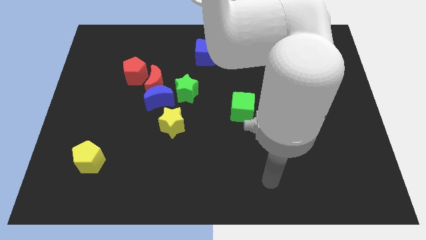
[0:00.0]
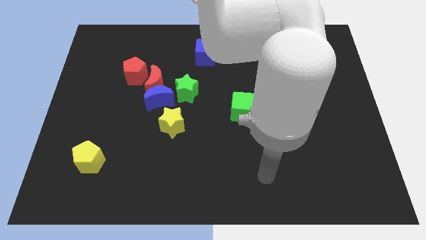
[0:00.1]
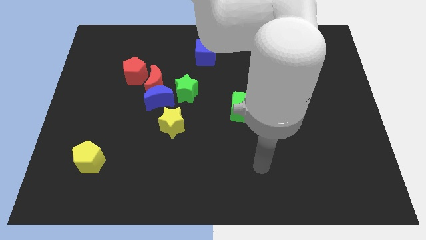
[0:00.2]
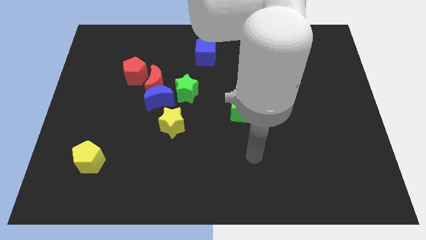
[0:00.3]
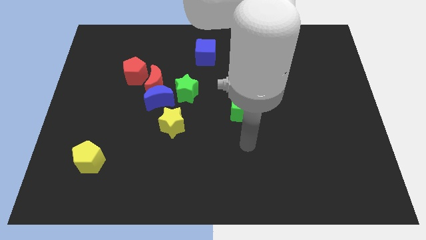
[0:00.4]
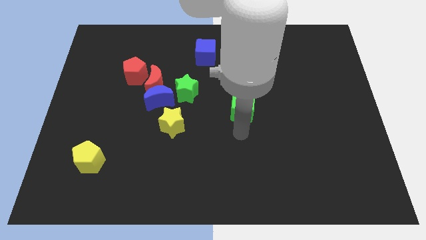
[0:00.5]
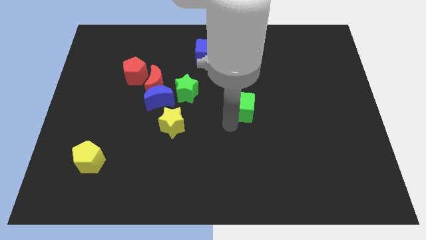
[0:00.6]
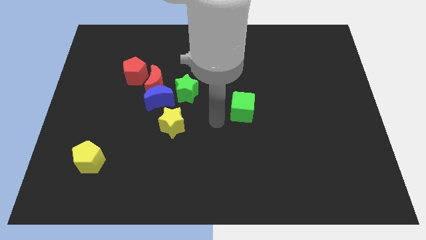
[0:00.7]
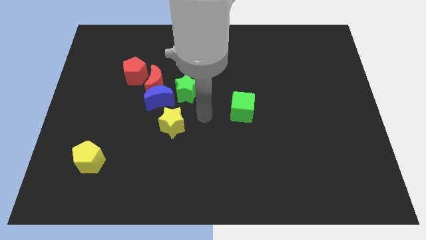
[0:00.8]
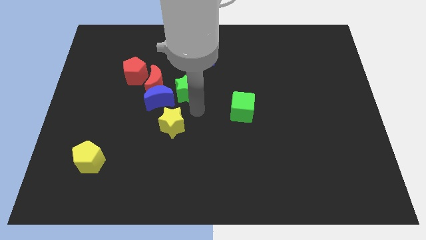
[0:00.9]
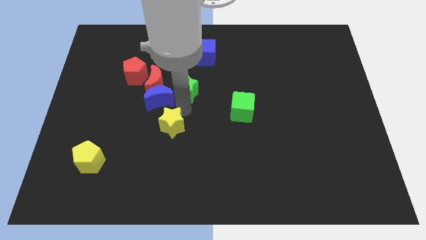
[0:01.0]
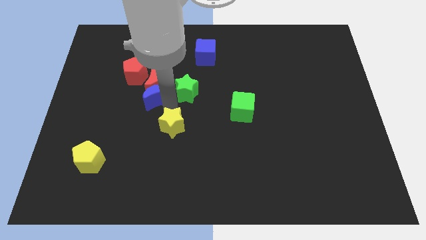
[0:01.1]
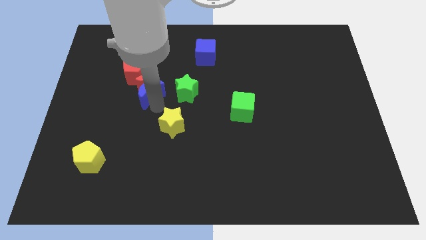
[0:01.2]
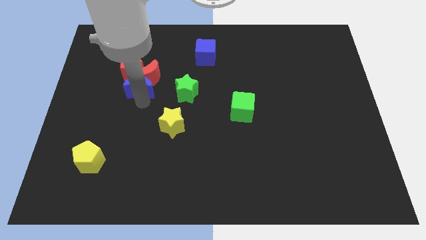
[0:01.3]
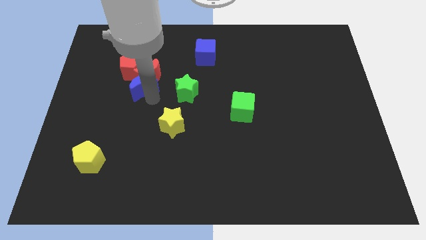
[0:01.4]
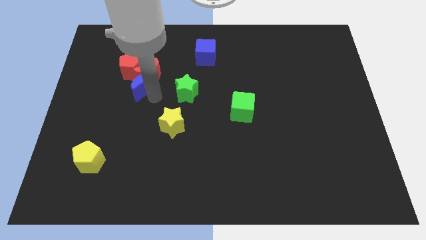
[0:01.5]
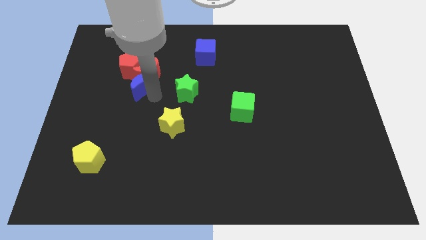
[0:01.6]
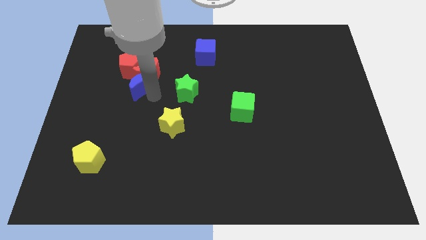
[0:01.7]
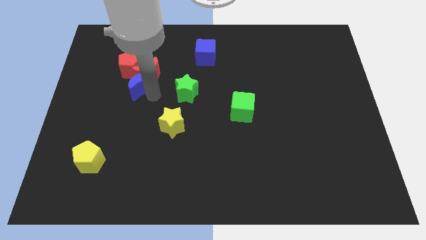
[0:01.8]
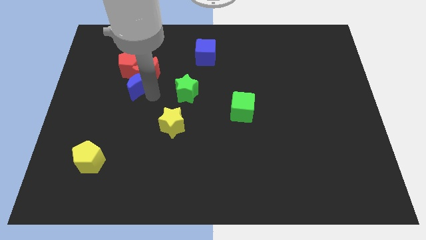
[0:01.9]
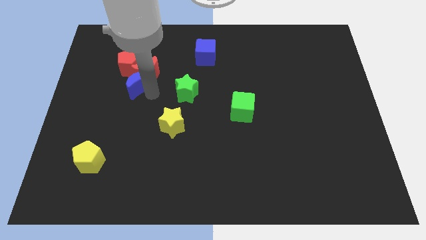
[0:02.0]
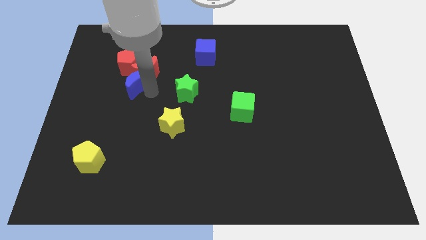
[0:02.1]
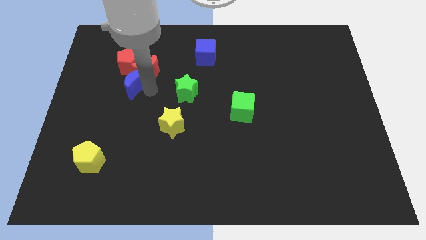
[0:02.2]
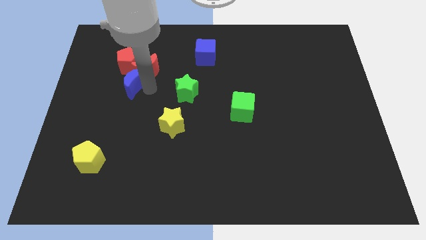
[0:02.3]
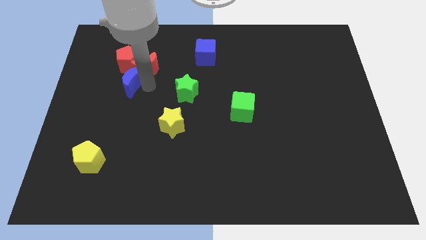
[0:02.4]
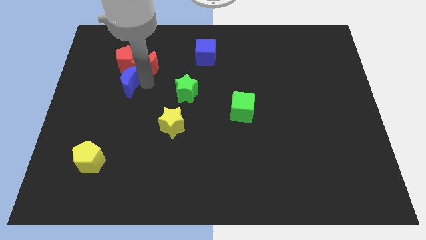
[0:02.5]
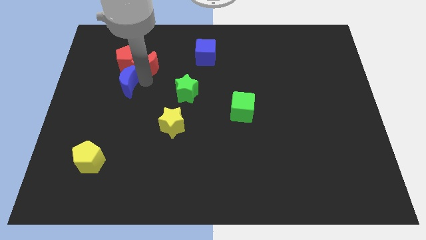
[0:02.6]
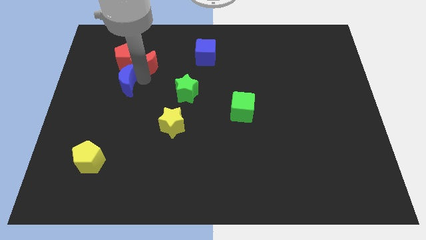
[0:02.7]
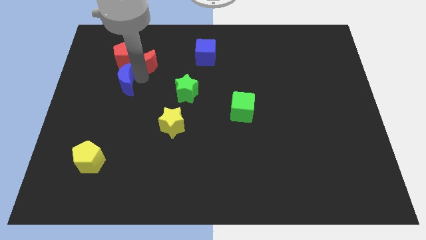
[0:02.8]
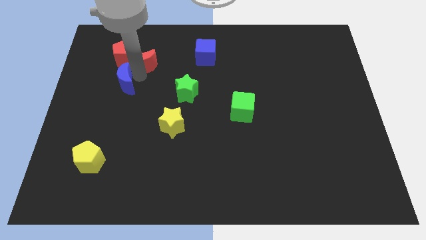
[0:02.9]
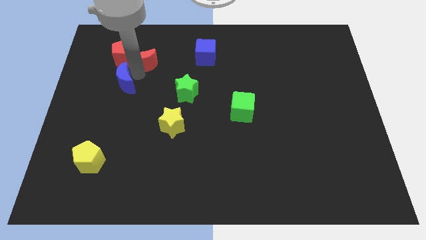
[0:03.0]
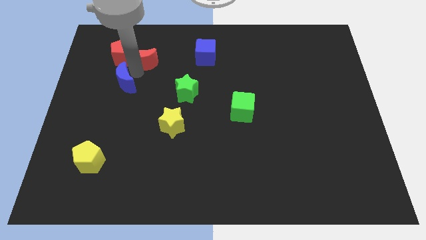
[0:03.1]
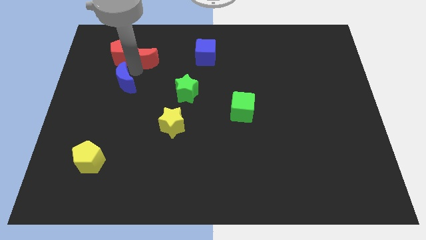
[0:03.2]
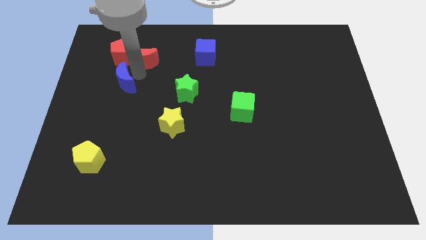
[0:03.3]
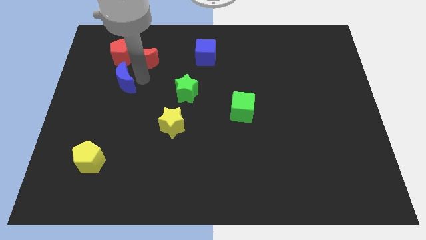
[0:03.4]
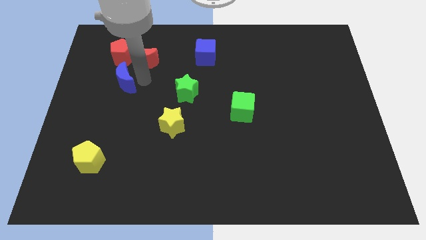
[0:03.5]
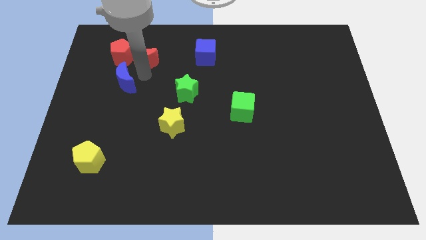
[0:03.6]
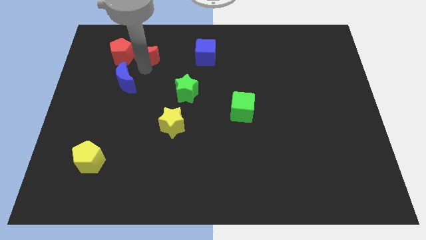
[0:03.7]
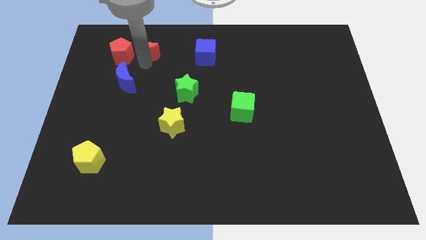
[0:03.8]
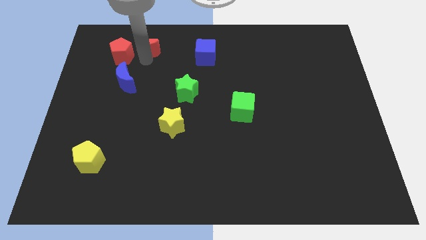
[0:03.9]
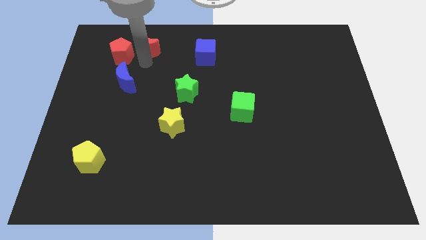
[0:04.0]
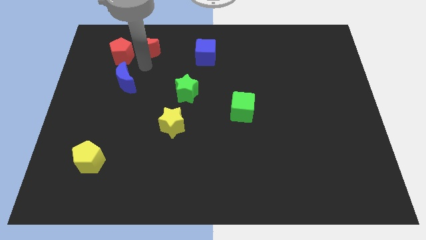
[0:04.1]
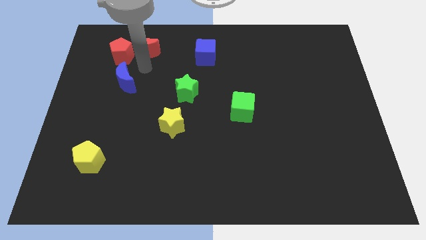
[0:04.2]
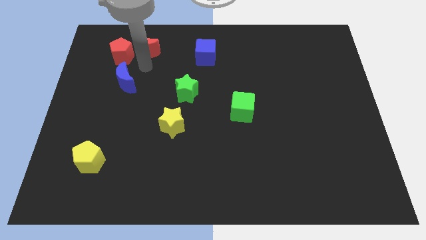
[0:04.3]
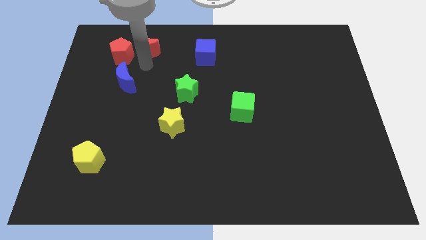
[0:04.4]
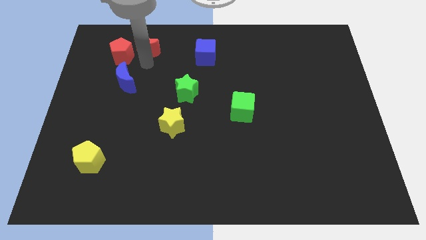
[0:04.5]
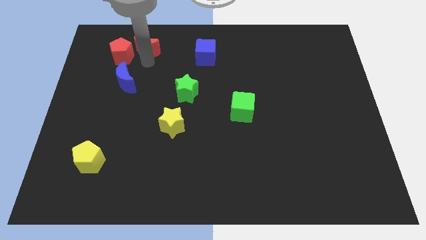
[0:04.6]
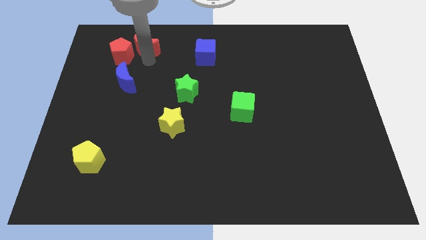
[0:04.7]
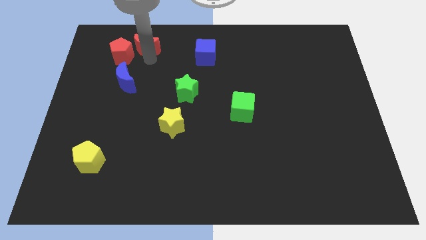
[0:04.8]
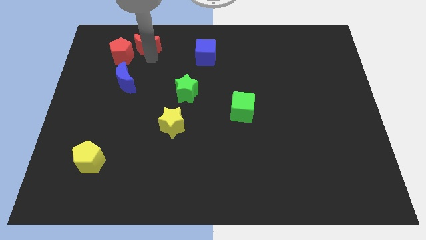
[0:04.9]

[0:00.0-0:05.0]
move the red moon away from the blue moon, red pentagon, and green star

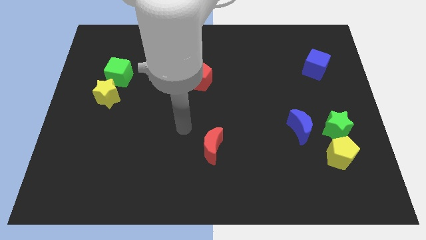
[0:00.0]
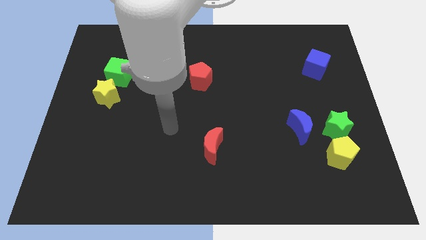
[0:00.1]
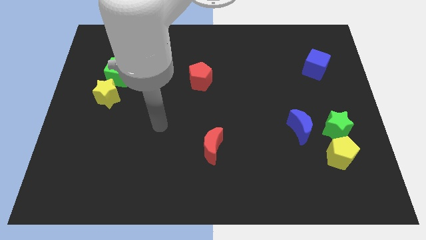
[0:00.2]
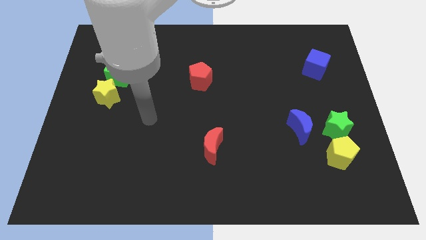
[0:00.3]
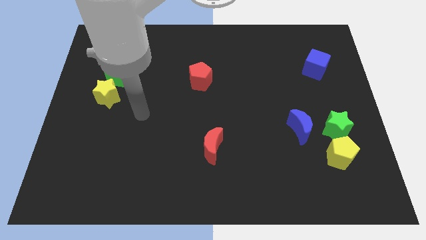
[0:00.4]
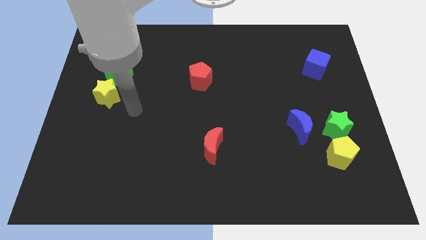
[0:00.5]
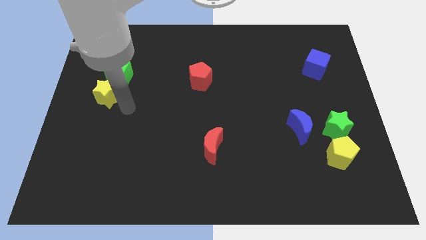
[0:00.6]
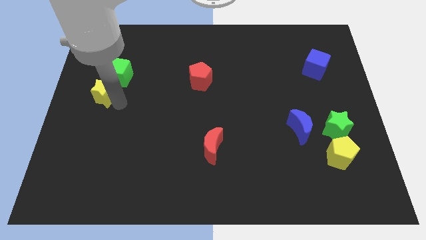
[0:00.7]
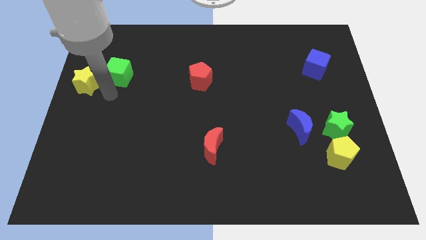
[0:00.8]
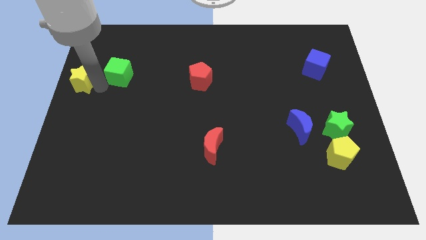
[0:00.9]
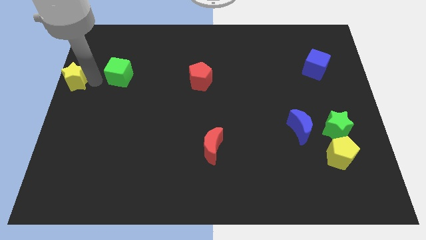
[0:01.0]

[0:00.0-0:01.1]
pull the green cube apart from the yellow star

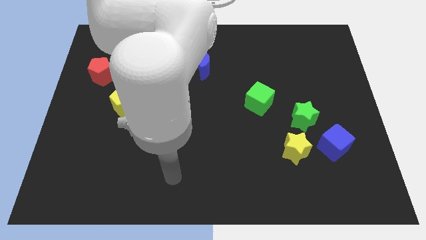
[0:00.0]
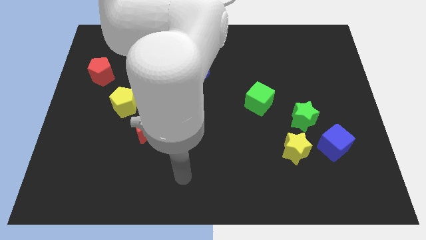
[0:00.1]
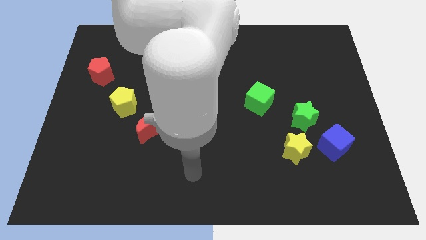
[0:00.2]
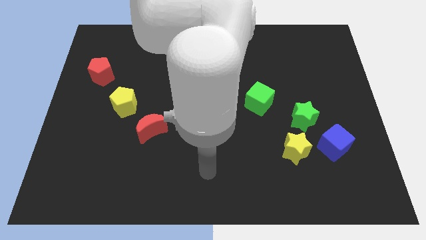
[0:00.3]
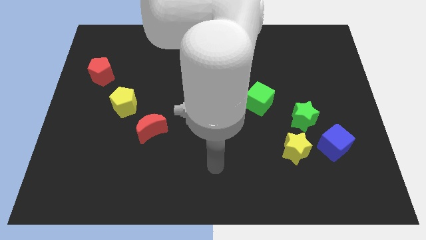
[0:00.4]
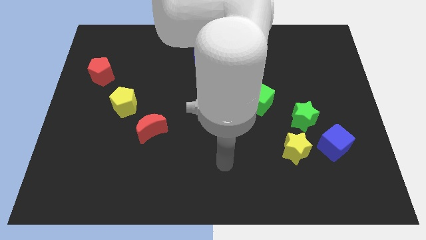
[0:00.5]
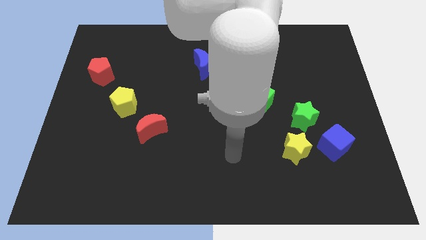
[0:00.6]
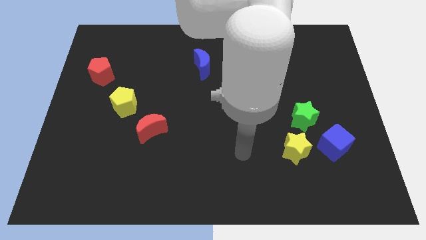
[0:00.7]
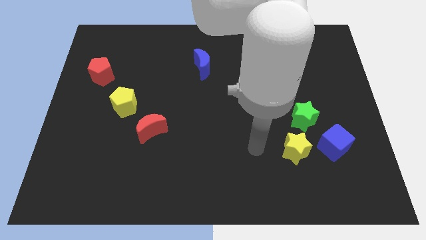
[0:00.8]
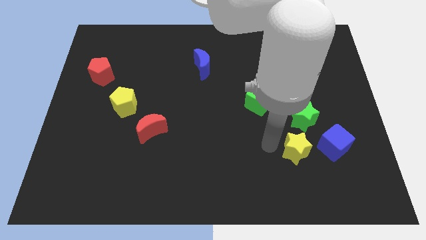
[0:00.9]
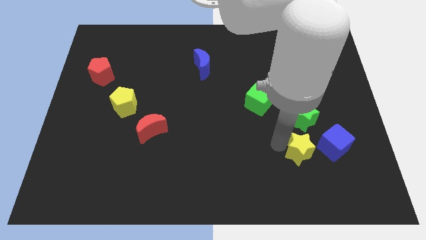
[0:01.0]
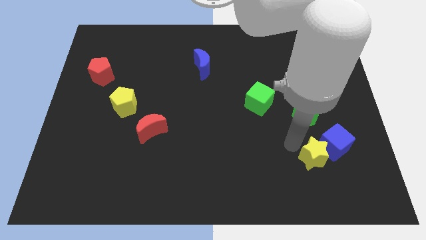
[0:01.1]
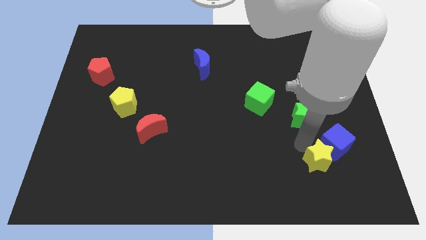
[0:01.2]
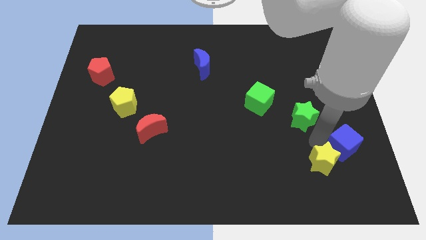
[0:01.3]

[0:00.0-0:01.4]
separate the green star from the yellow star and blue cube

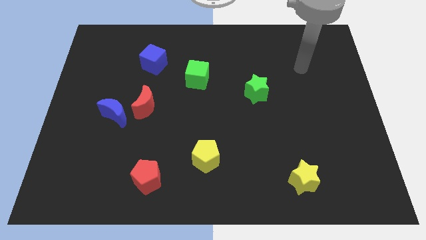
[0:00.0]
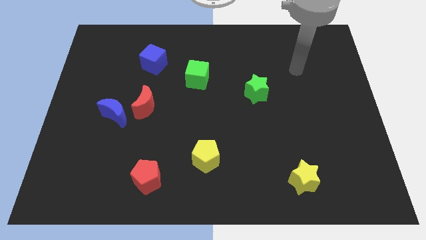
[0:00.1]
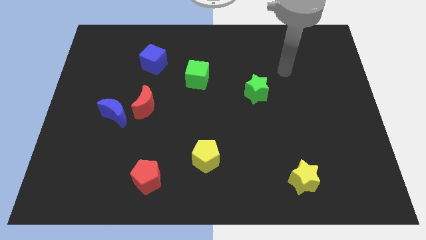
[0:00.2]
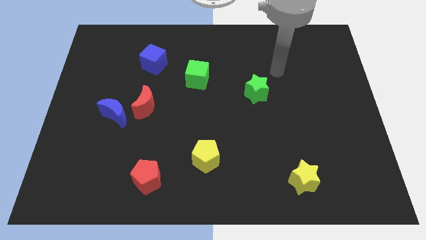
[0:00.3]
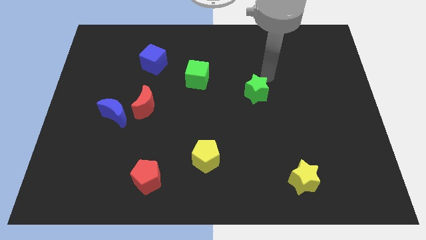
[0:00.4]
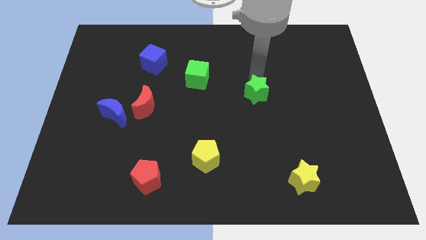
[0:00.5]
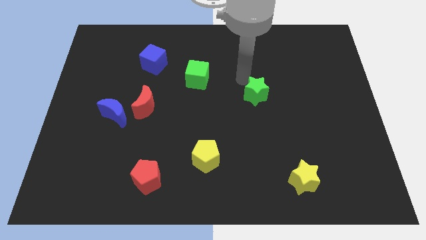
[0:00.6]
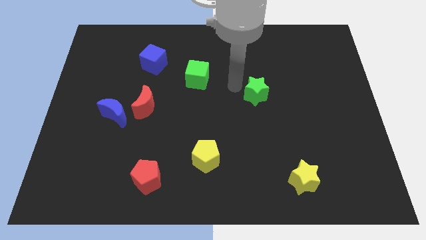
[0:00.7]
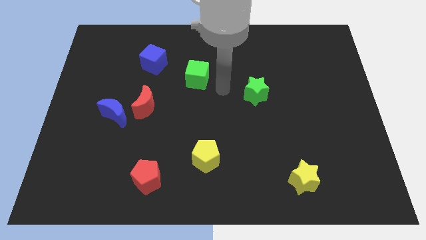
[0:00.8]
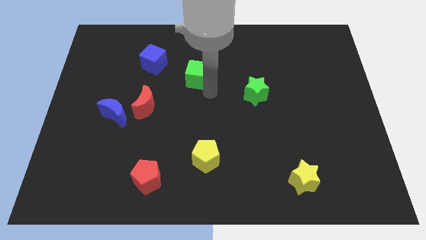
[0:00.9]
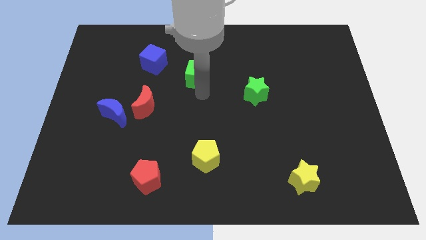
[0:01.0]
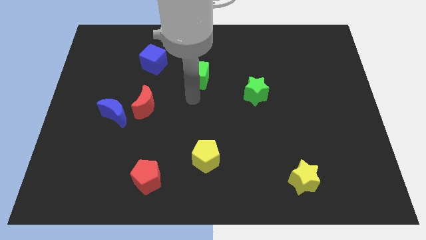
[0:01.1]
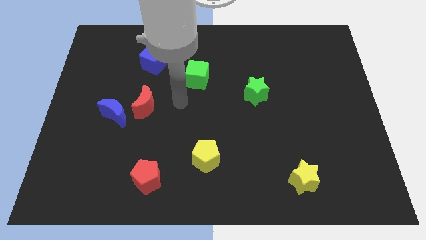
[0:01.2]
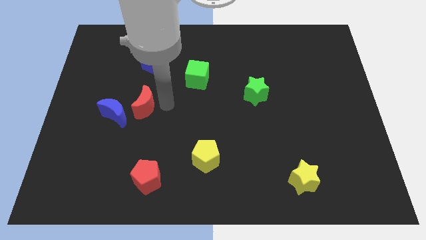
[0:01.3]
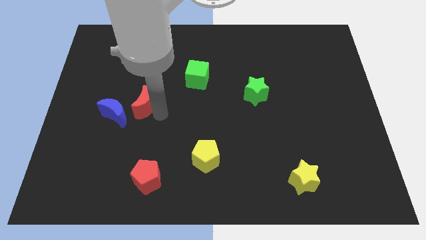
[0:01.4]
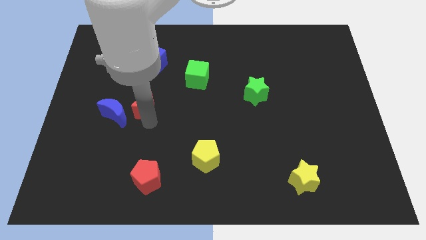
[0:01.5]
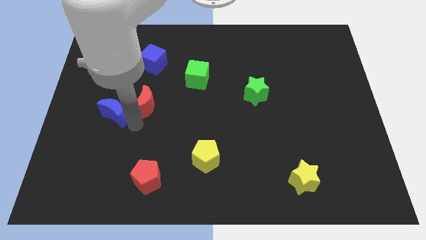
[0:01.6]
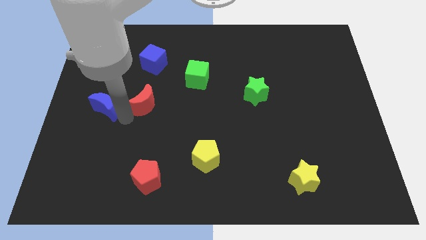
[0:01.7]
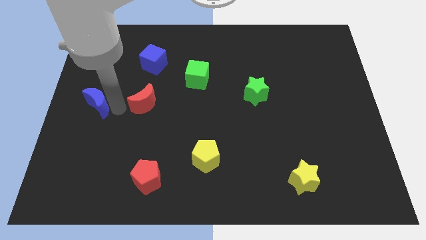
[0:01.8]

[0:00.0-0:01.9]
pull the red moon apart from the blue moon
